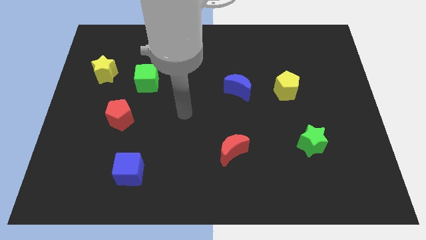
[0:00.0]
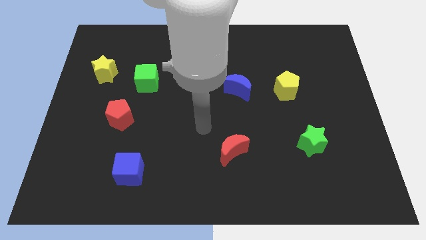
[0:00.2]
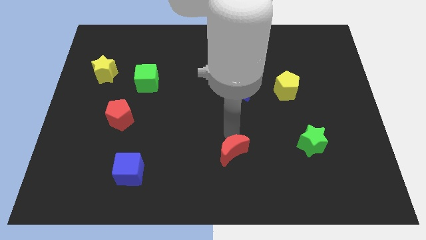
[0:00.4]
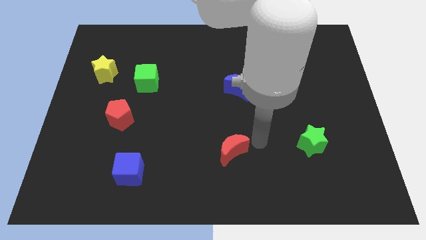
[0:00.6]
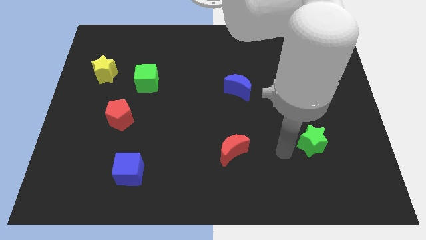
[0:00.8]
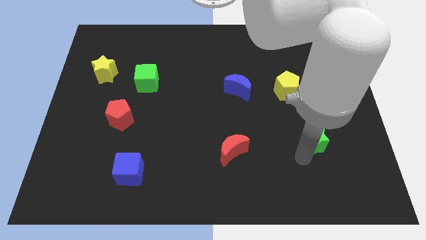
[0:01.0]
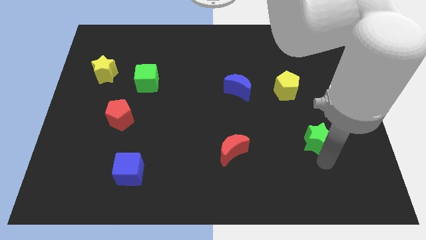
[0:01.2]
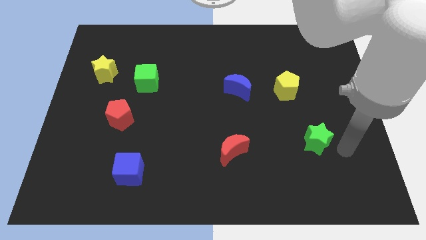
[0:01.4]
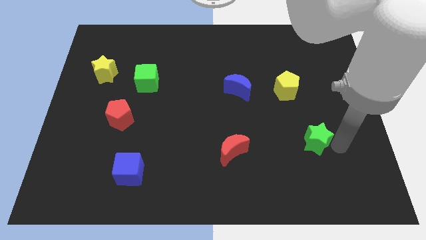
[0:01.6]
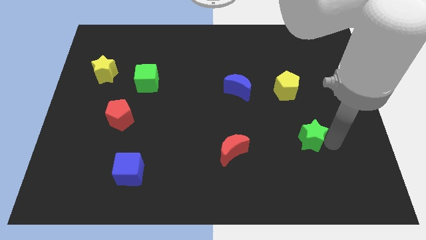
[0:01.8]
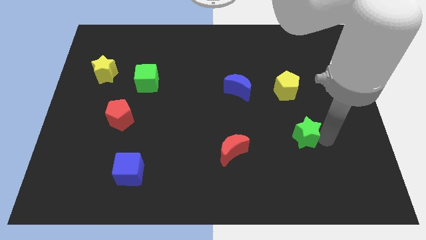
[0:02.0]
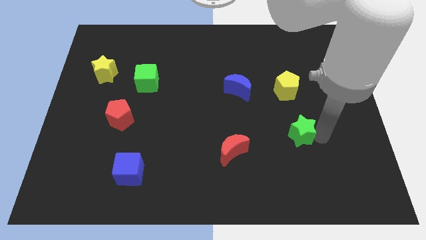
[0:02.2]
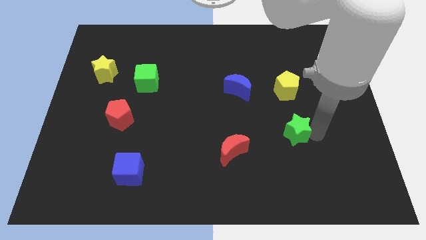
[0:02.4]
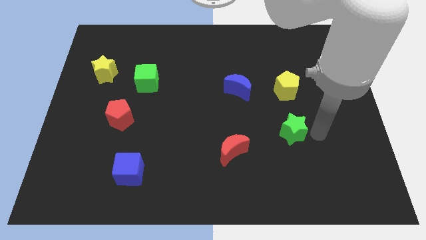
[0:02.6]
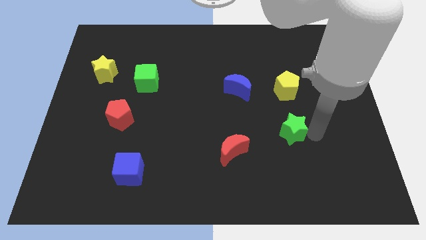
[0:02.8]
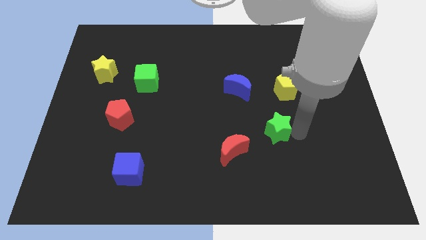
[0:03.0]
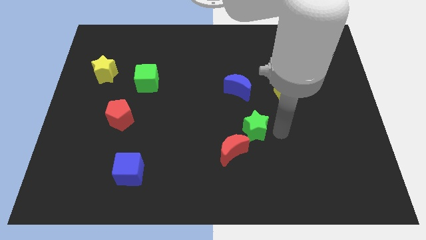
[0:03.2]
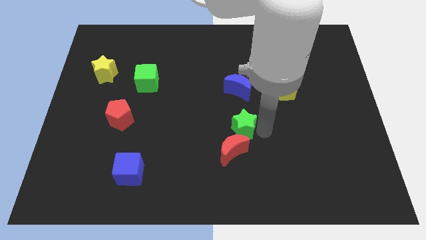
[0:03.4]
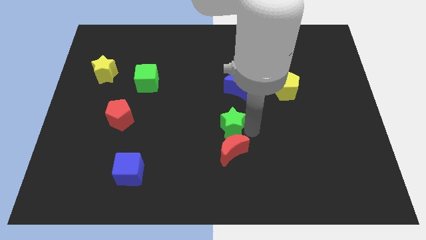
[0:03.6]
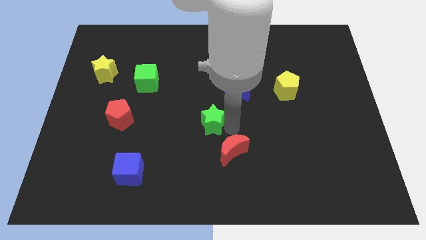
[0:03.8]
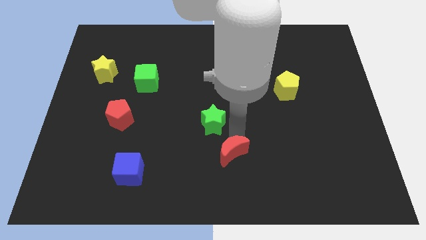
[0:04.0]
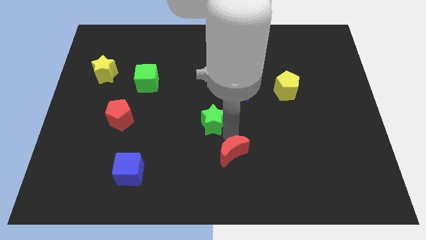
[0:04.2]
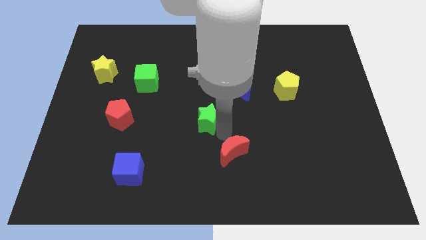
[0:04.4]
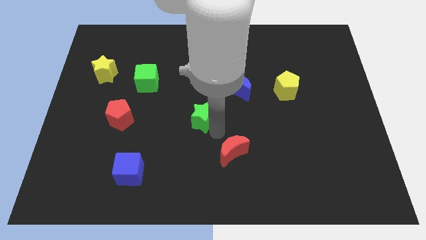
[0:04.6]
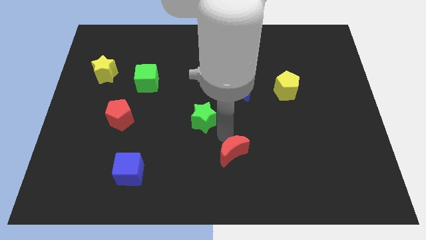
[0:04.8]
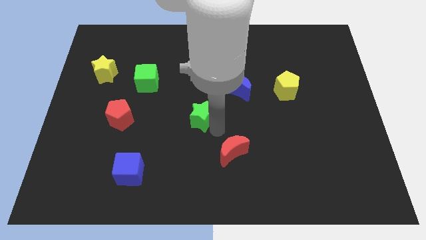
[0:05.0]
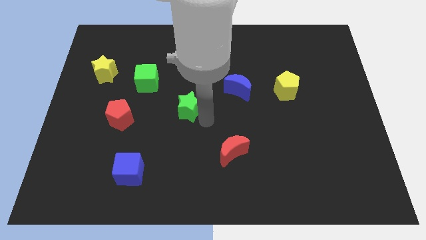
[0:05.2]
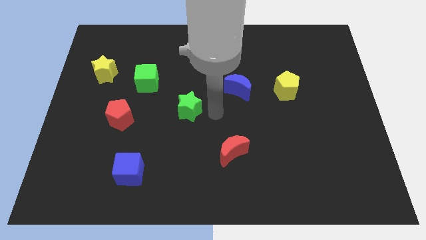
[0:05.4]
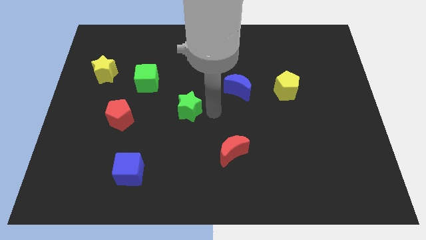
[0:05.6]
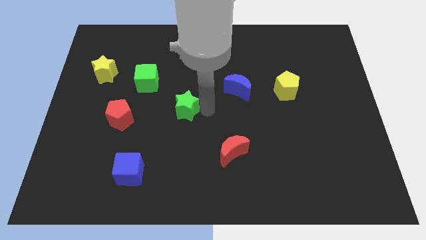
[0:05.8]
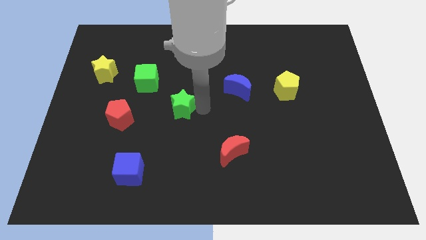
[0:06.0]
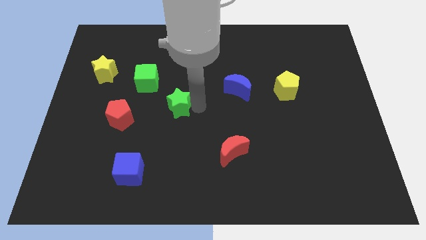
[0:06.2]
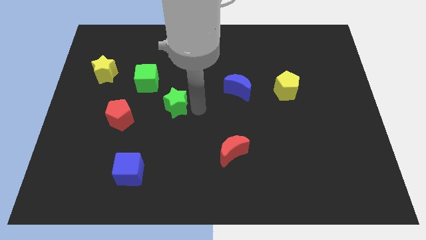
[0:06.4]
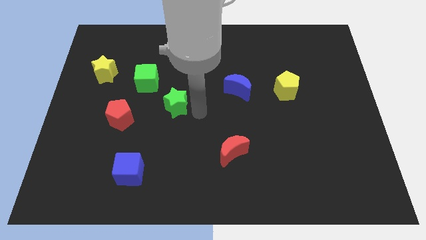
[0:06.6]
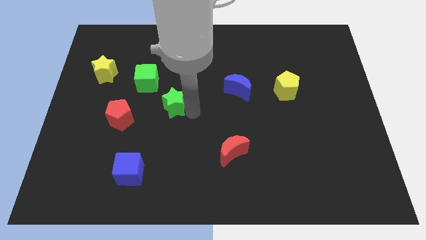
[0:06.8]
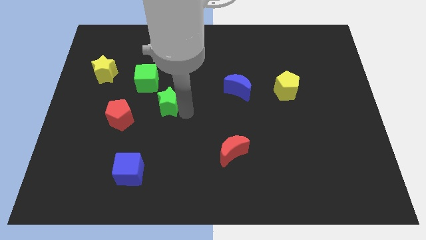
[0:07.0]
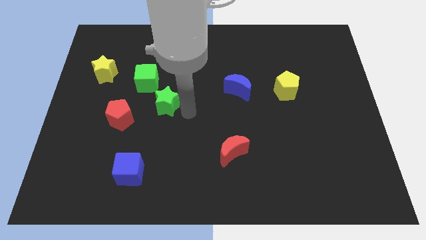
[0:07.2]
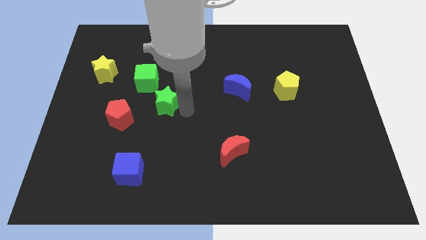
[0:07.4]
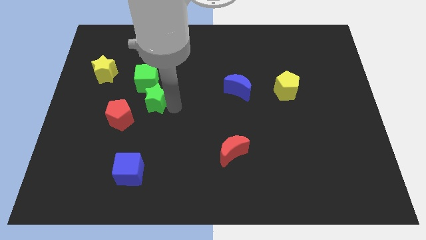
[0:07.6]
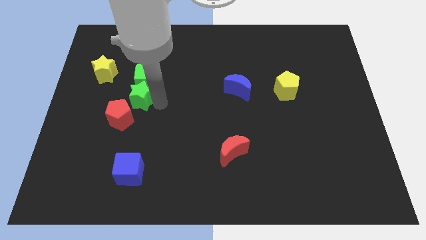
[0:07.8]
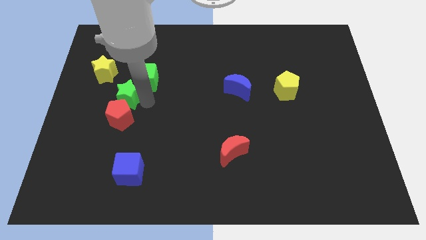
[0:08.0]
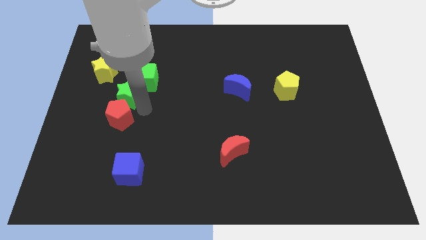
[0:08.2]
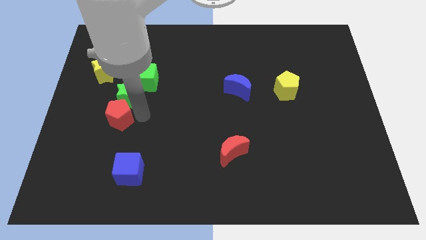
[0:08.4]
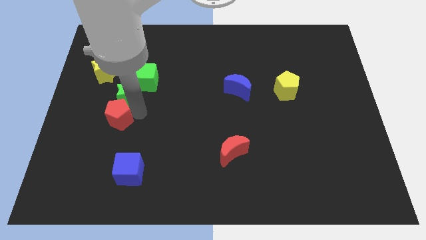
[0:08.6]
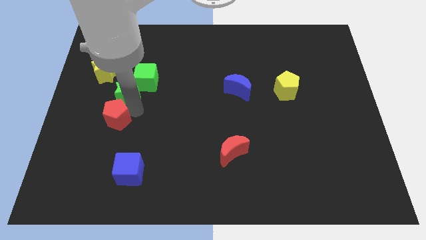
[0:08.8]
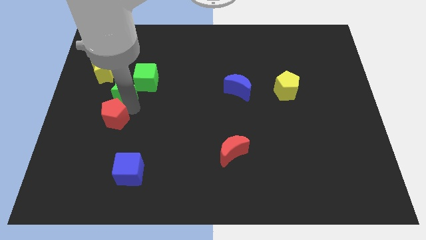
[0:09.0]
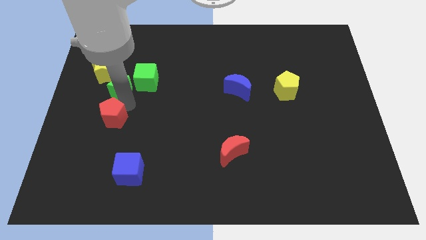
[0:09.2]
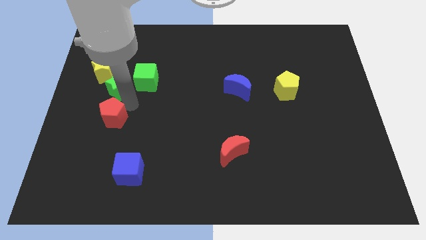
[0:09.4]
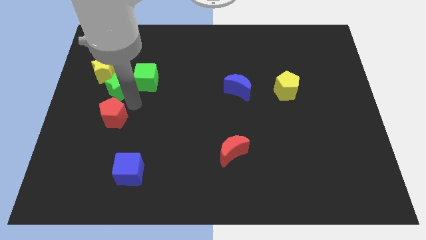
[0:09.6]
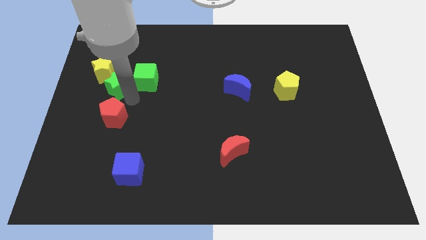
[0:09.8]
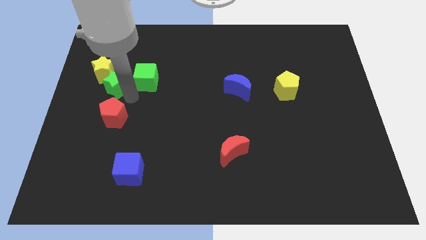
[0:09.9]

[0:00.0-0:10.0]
move the green star close to the yellow star

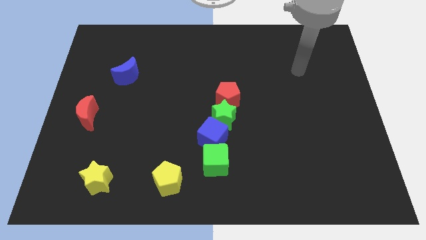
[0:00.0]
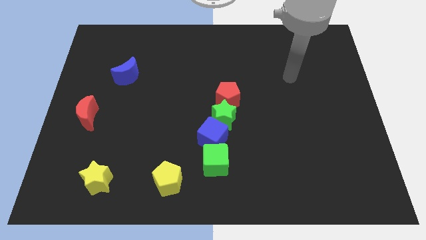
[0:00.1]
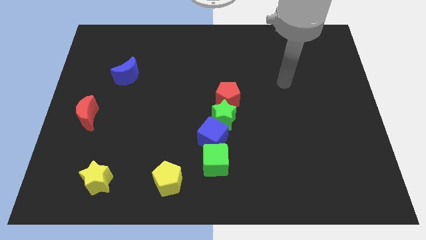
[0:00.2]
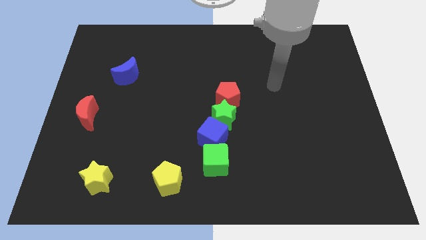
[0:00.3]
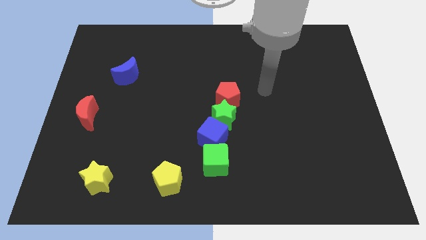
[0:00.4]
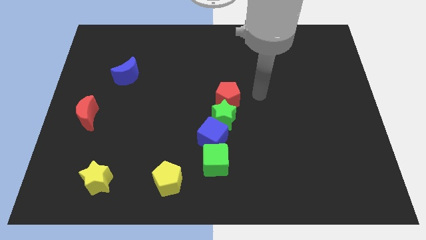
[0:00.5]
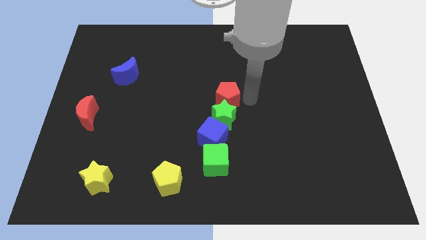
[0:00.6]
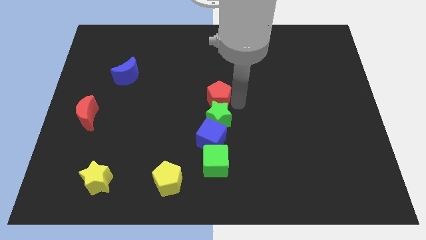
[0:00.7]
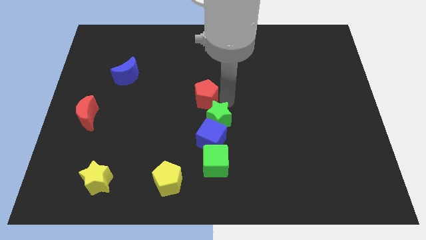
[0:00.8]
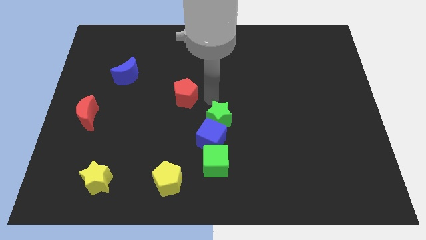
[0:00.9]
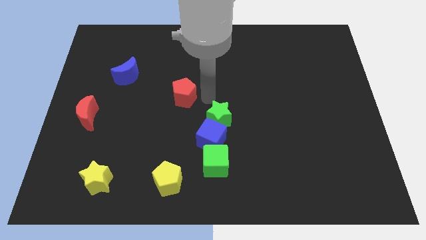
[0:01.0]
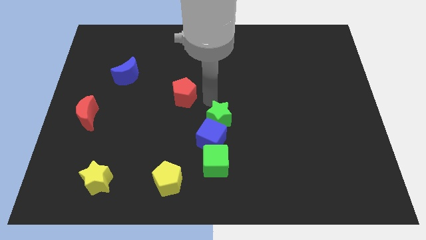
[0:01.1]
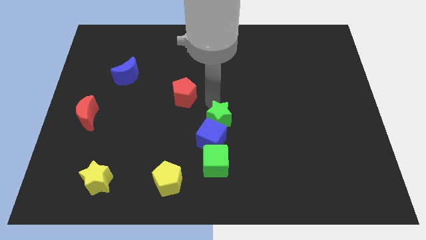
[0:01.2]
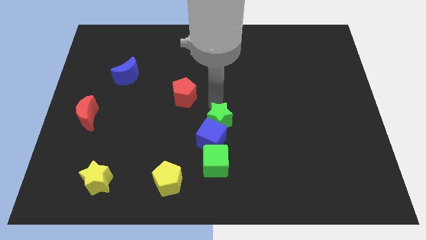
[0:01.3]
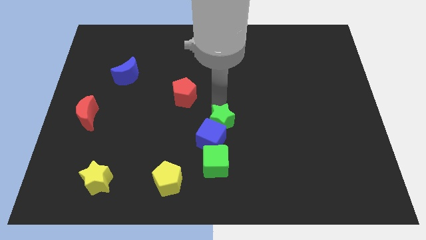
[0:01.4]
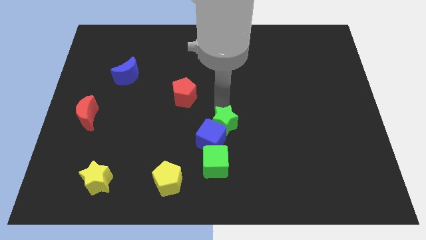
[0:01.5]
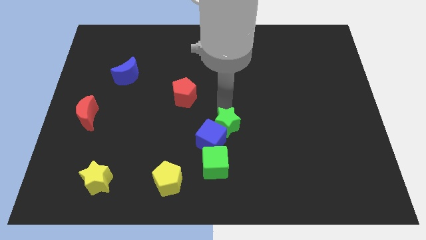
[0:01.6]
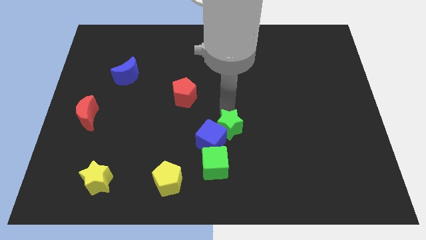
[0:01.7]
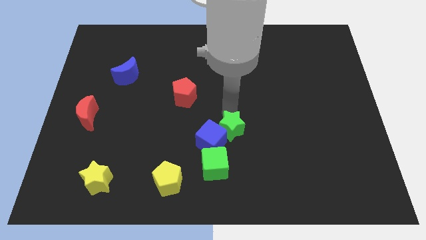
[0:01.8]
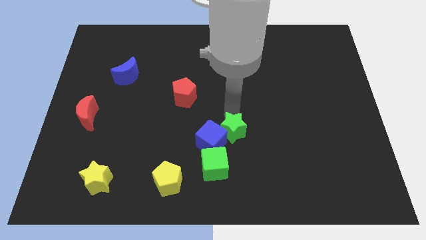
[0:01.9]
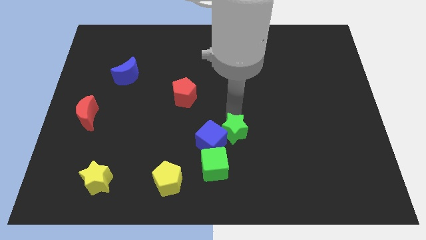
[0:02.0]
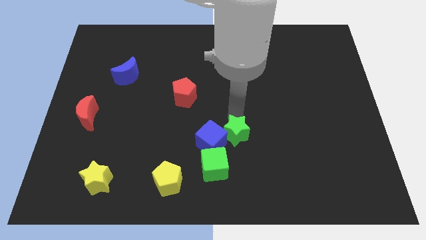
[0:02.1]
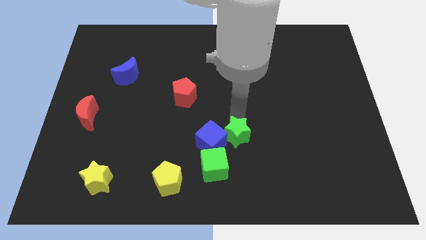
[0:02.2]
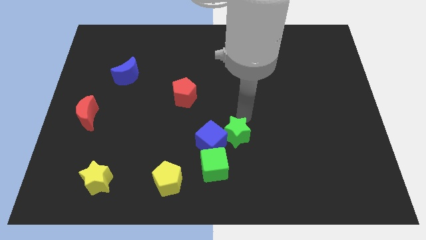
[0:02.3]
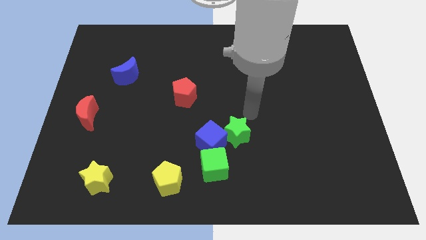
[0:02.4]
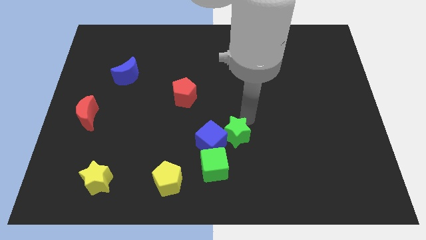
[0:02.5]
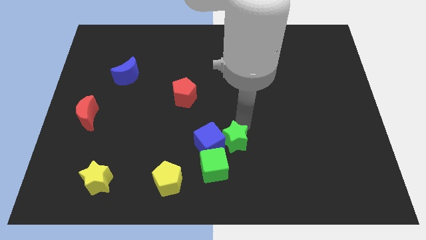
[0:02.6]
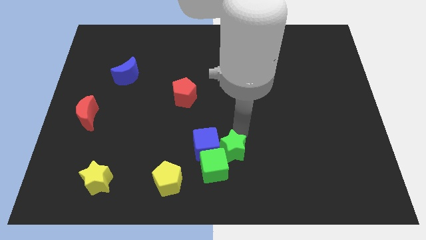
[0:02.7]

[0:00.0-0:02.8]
put the green star close to the green cube
